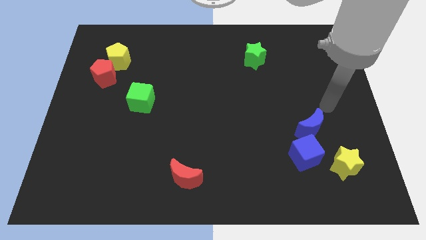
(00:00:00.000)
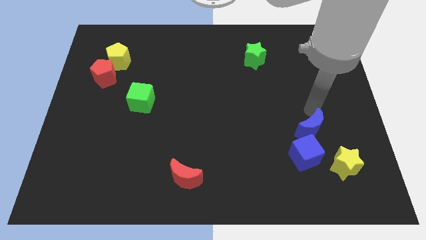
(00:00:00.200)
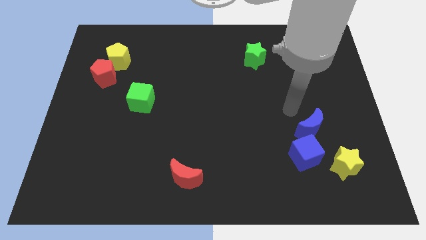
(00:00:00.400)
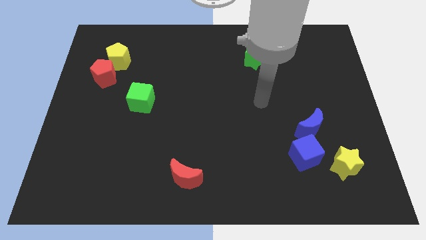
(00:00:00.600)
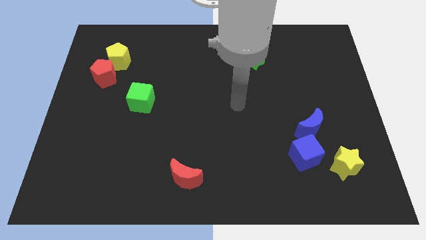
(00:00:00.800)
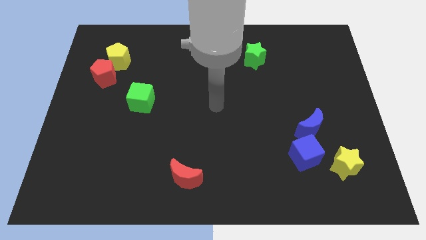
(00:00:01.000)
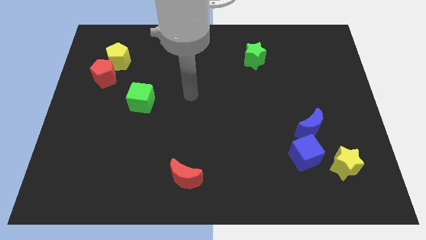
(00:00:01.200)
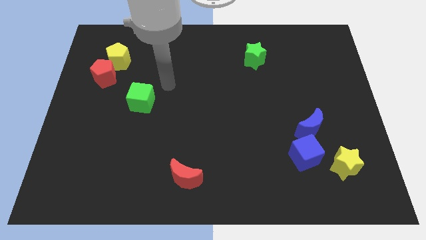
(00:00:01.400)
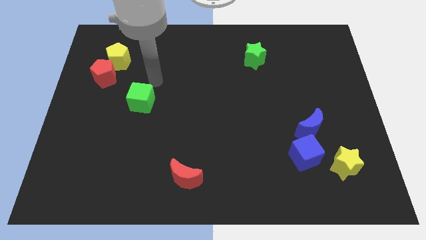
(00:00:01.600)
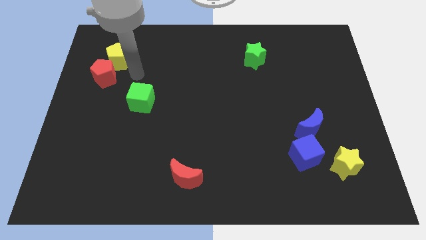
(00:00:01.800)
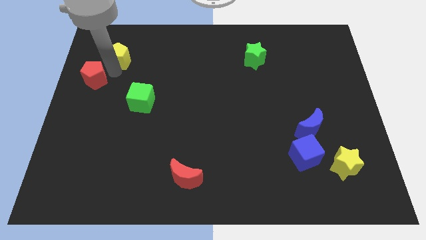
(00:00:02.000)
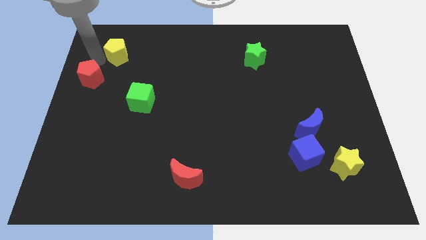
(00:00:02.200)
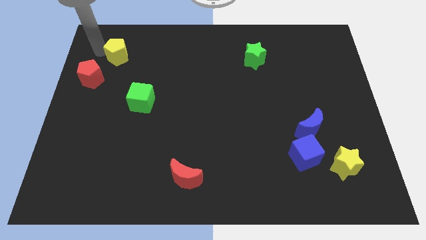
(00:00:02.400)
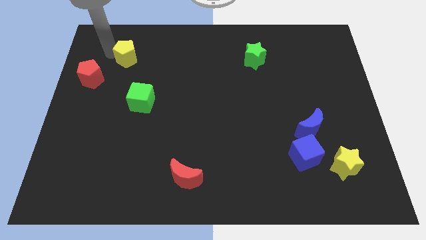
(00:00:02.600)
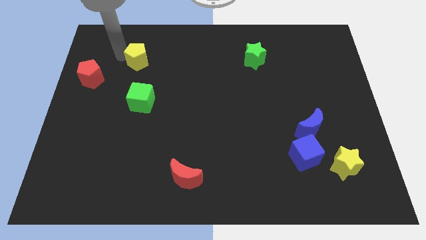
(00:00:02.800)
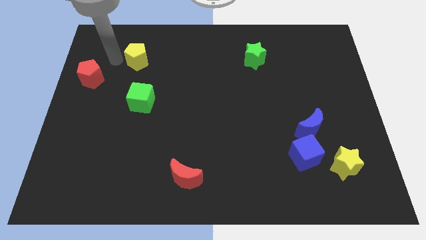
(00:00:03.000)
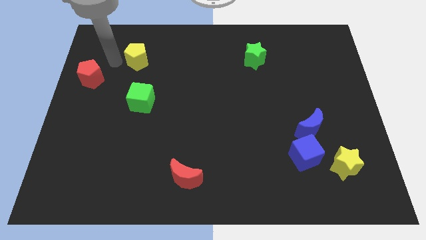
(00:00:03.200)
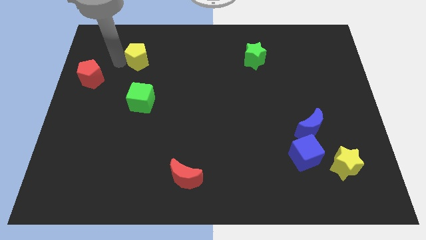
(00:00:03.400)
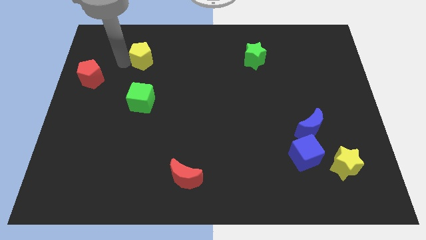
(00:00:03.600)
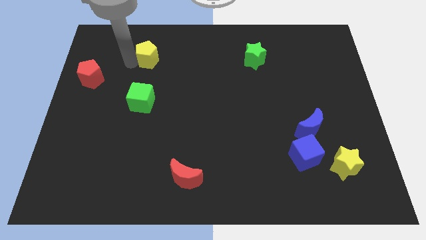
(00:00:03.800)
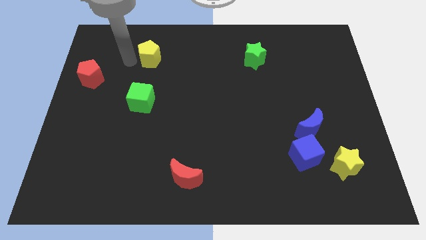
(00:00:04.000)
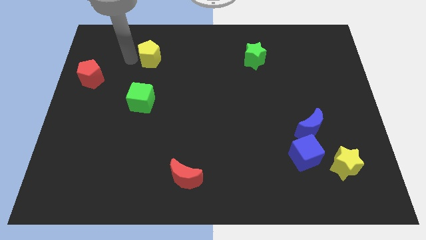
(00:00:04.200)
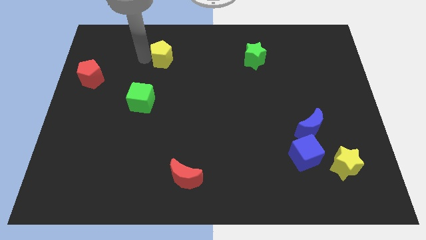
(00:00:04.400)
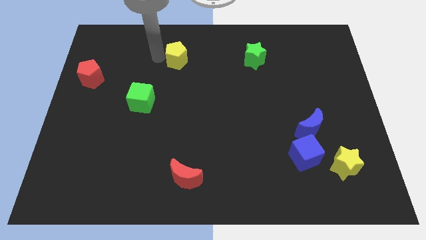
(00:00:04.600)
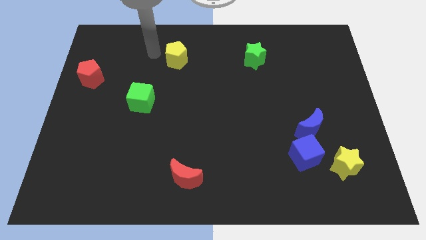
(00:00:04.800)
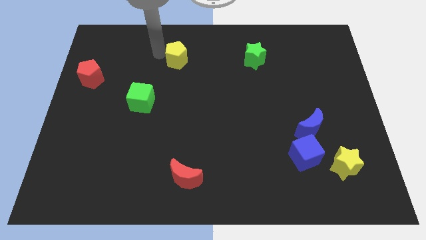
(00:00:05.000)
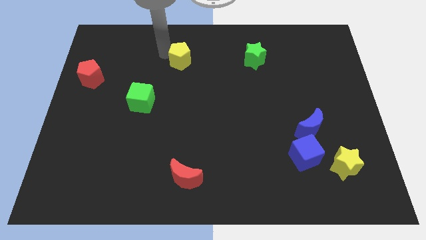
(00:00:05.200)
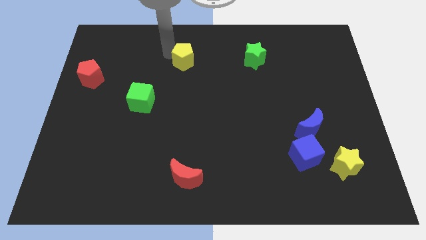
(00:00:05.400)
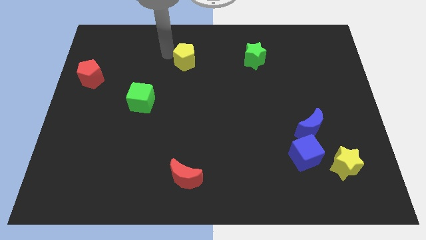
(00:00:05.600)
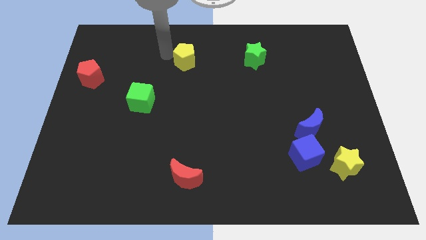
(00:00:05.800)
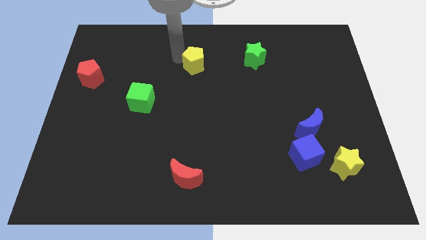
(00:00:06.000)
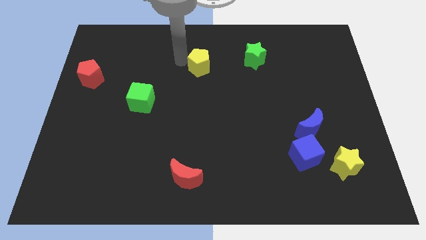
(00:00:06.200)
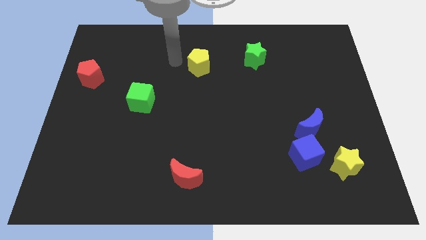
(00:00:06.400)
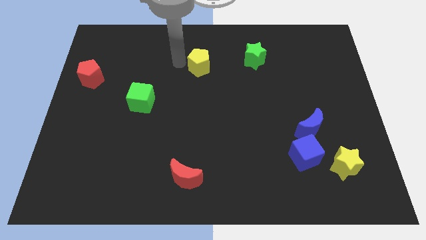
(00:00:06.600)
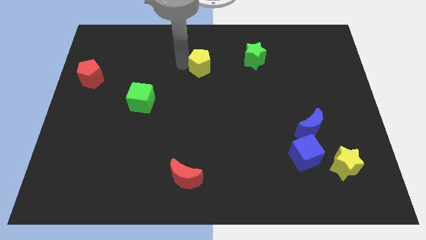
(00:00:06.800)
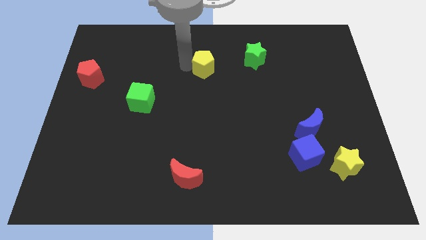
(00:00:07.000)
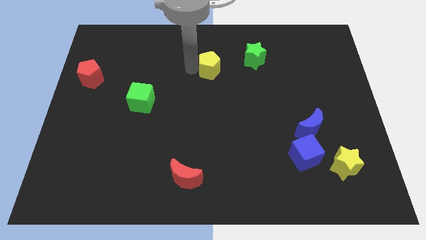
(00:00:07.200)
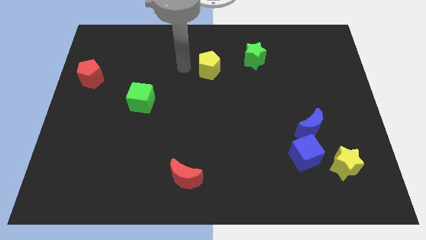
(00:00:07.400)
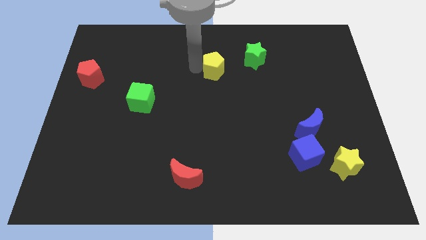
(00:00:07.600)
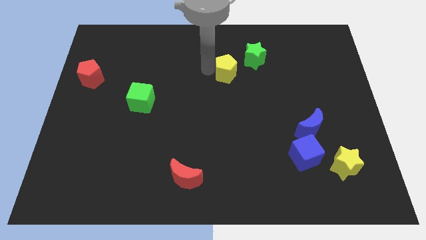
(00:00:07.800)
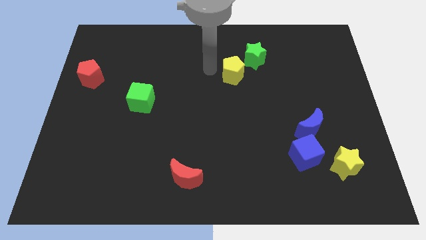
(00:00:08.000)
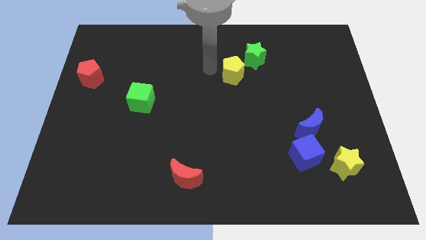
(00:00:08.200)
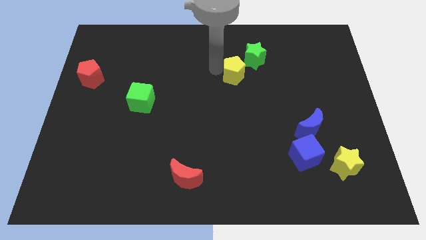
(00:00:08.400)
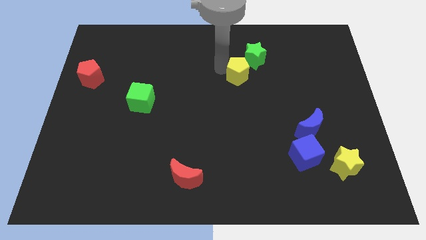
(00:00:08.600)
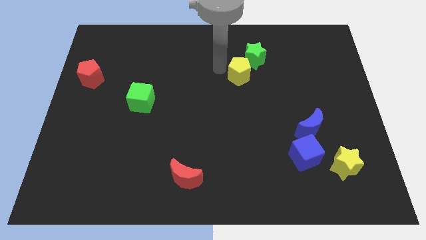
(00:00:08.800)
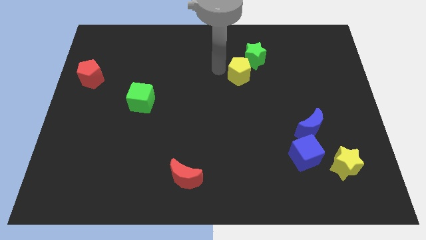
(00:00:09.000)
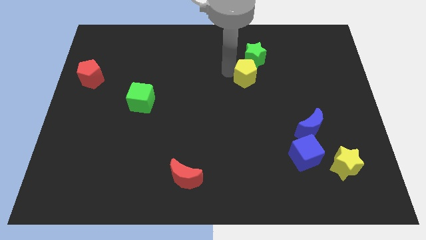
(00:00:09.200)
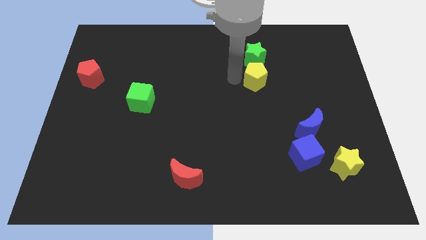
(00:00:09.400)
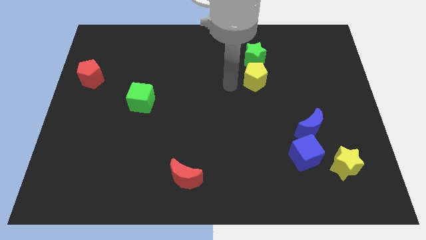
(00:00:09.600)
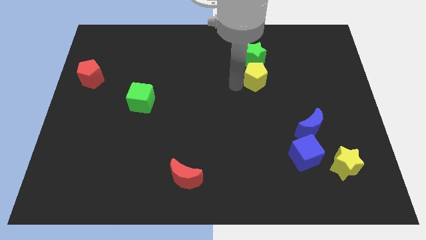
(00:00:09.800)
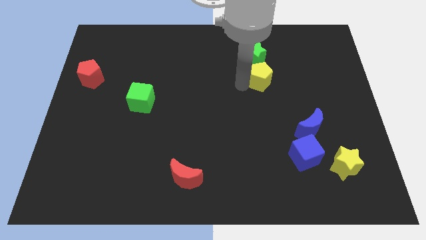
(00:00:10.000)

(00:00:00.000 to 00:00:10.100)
move the yellow pentagon to the bottom right of the green star

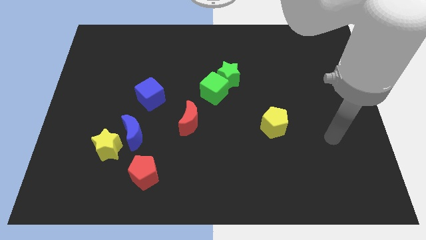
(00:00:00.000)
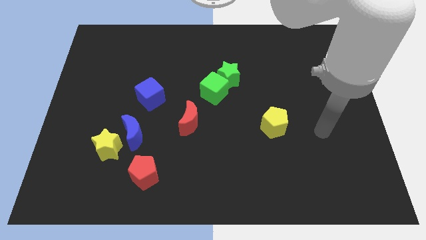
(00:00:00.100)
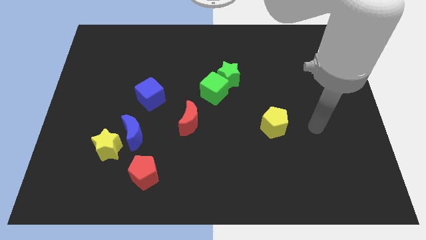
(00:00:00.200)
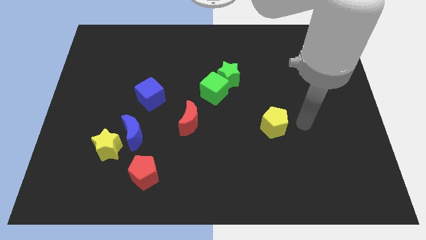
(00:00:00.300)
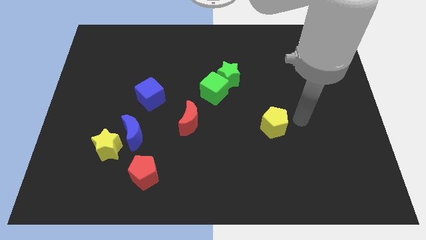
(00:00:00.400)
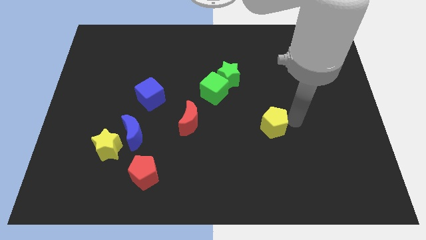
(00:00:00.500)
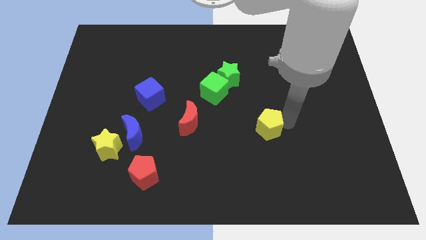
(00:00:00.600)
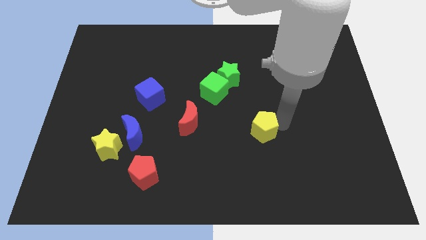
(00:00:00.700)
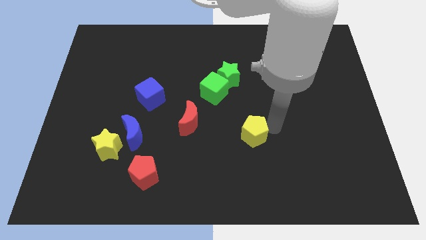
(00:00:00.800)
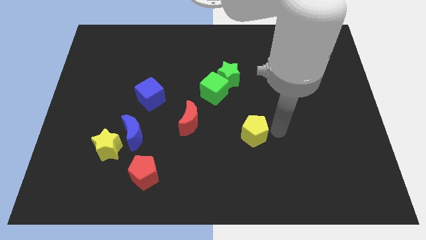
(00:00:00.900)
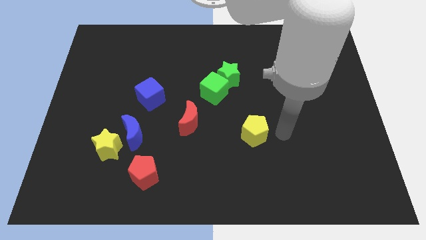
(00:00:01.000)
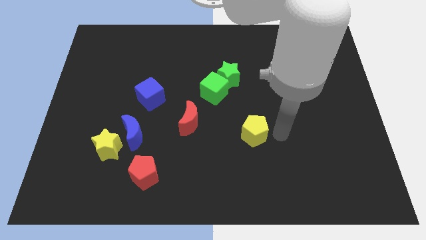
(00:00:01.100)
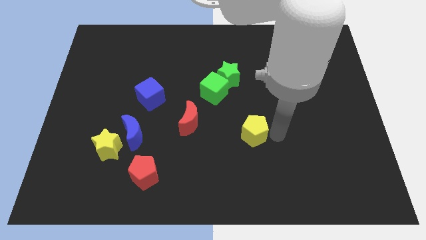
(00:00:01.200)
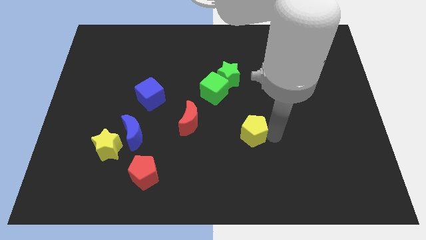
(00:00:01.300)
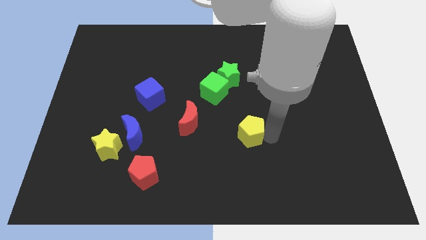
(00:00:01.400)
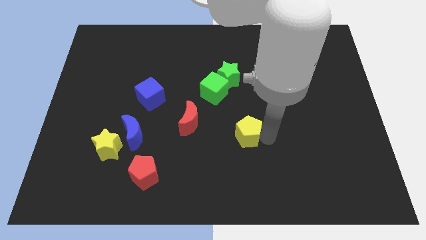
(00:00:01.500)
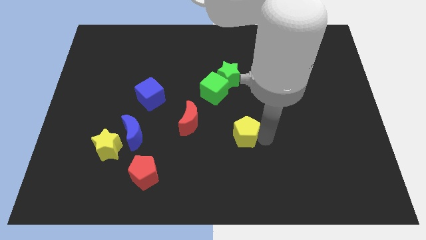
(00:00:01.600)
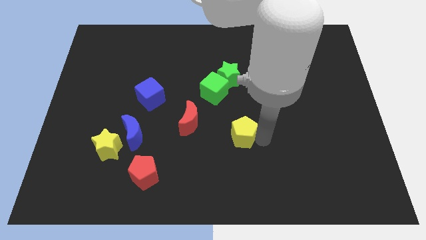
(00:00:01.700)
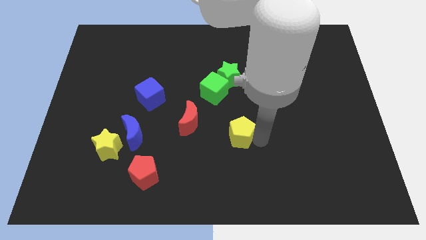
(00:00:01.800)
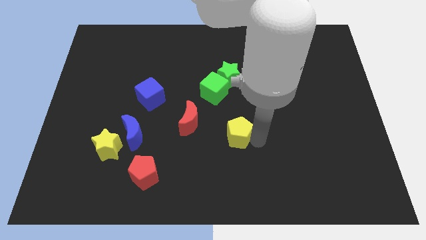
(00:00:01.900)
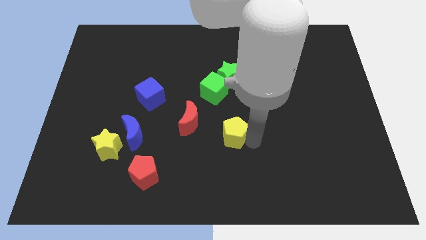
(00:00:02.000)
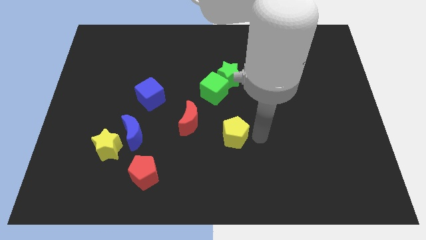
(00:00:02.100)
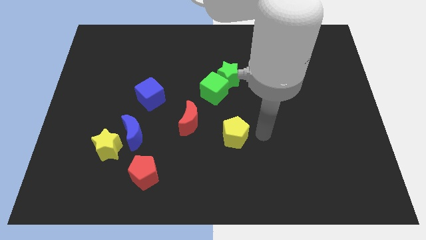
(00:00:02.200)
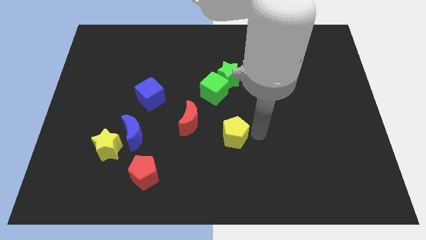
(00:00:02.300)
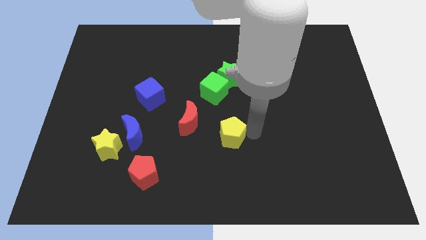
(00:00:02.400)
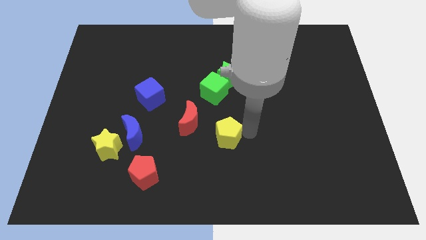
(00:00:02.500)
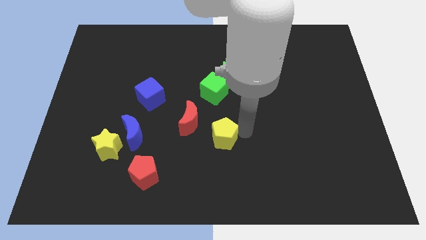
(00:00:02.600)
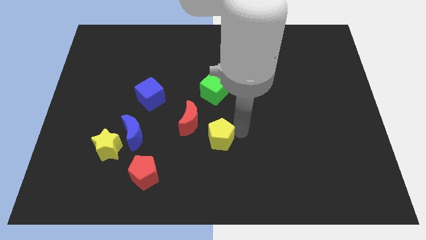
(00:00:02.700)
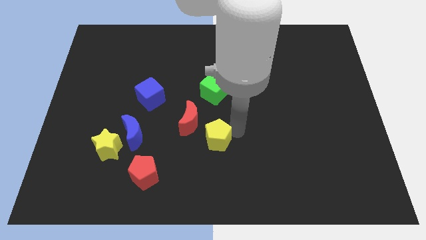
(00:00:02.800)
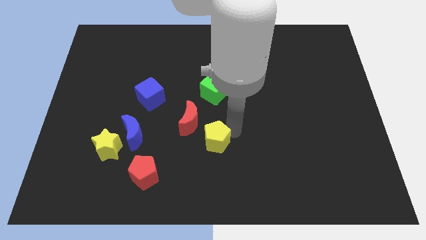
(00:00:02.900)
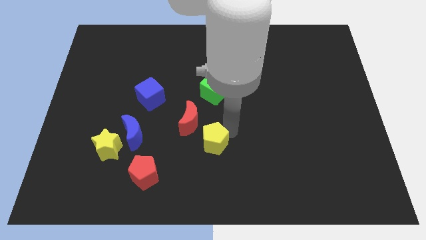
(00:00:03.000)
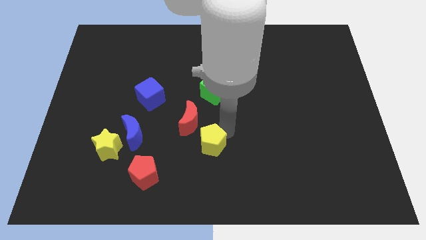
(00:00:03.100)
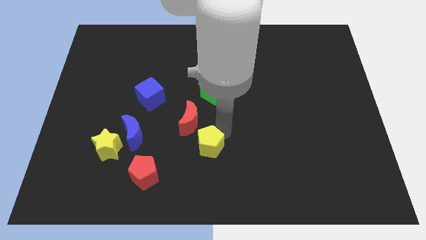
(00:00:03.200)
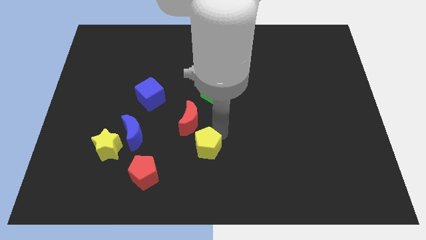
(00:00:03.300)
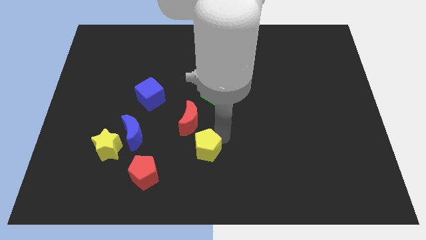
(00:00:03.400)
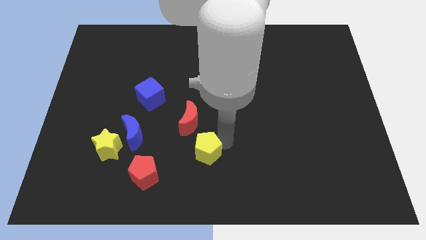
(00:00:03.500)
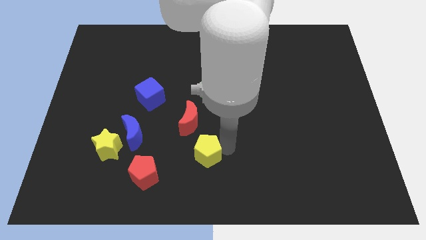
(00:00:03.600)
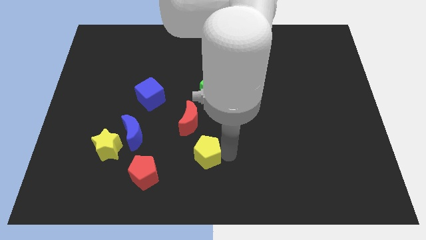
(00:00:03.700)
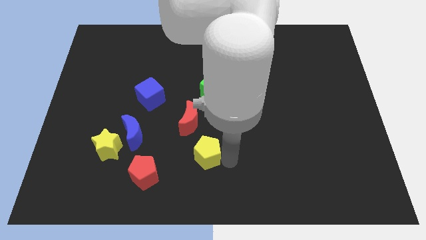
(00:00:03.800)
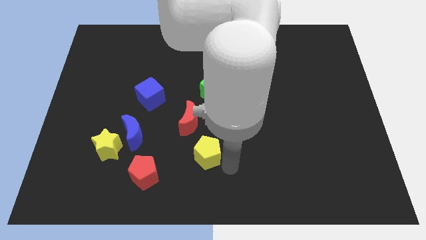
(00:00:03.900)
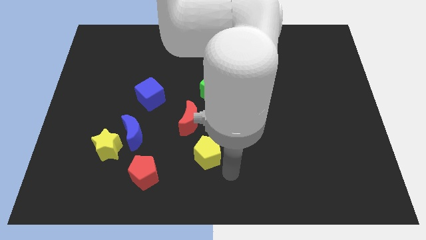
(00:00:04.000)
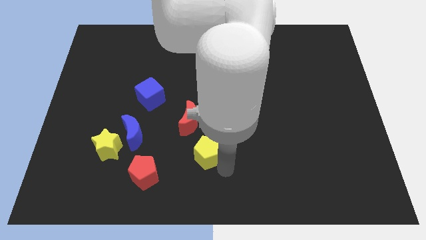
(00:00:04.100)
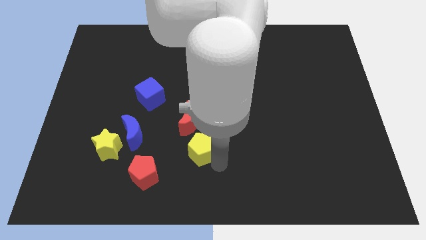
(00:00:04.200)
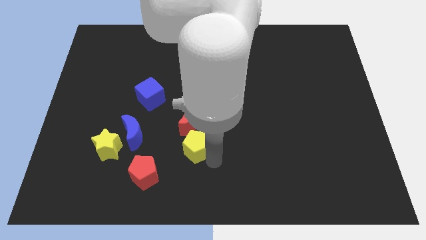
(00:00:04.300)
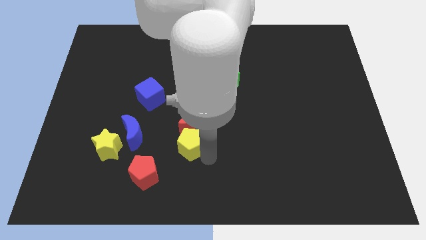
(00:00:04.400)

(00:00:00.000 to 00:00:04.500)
push the yellow pentagon diagonally down and to the left of the red moon
